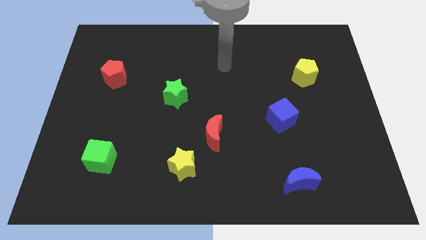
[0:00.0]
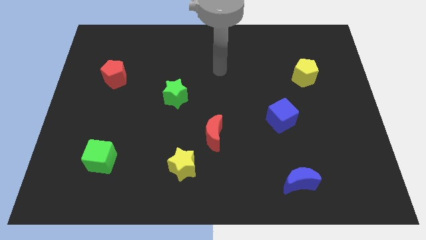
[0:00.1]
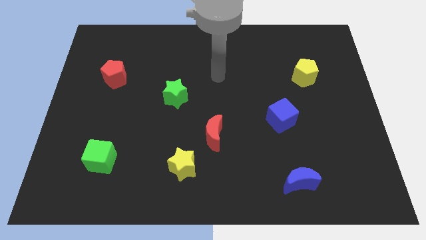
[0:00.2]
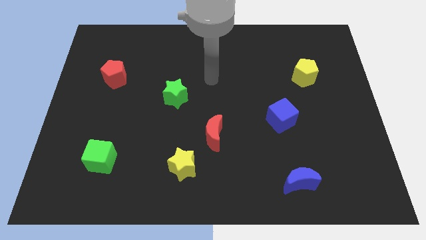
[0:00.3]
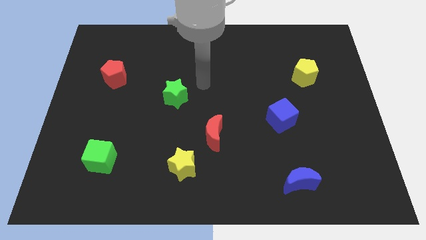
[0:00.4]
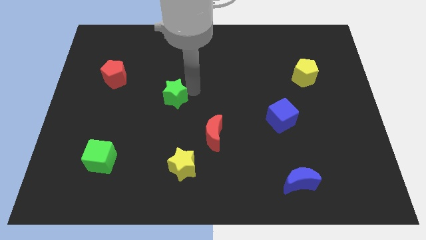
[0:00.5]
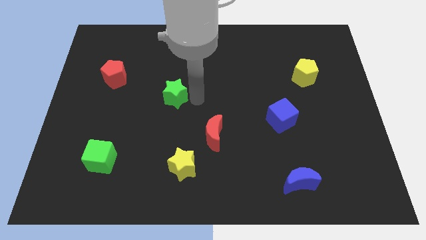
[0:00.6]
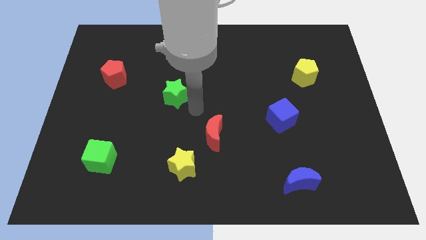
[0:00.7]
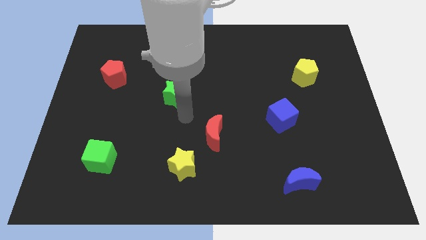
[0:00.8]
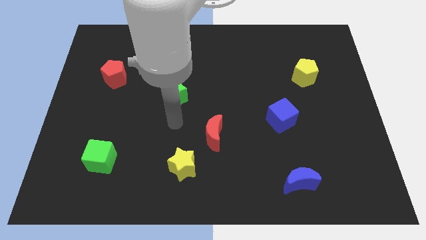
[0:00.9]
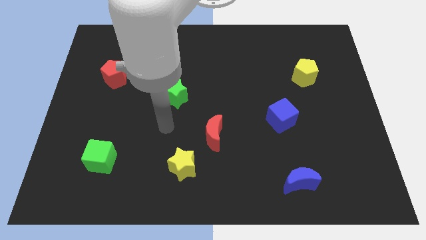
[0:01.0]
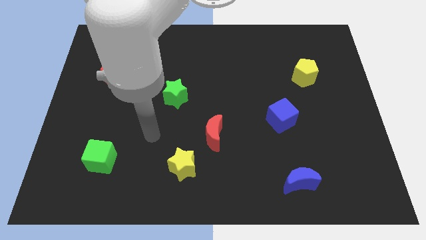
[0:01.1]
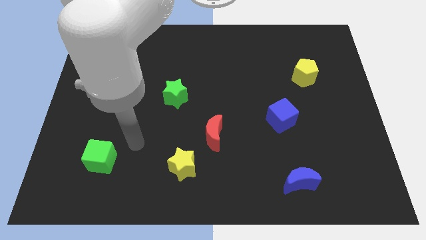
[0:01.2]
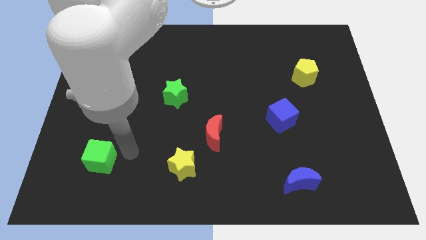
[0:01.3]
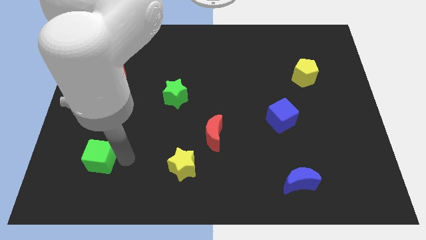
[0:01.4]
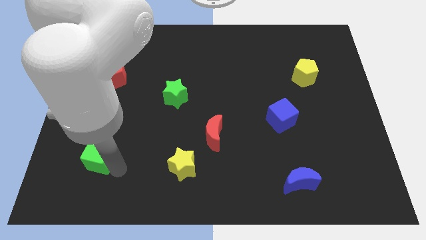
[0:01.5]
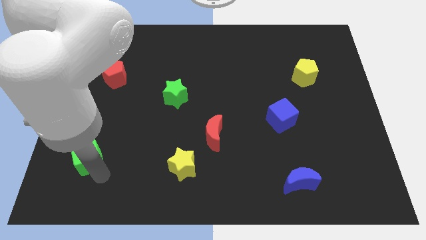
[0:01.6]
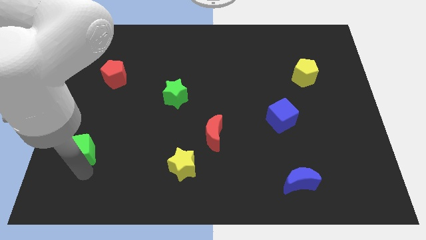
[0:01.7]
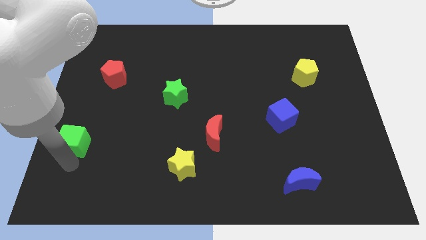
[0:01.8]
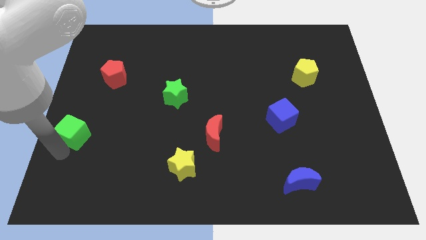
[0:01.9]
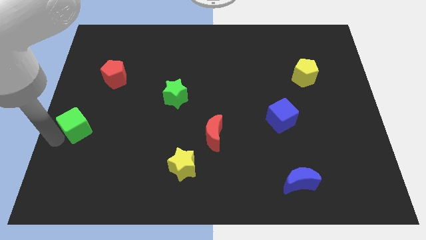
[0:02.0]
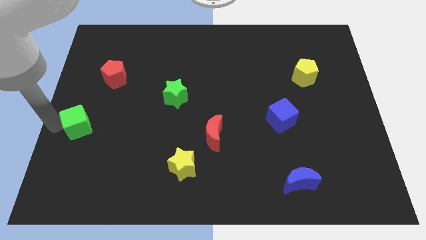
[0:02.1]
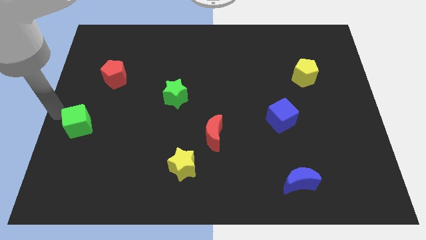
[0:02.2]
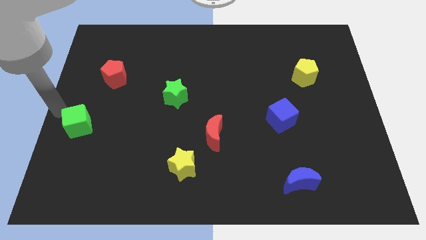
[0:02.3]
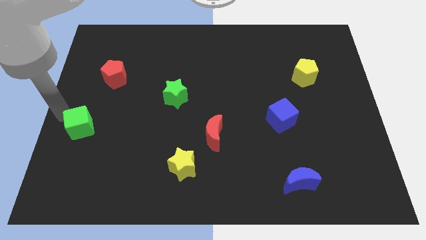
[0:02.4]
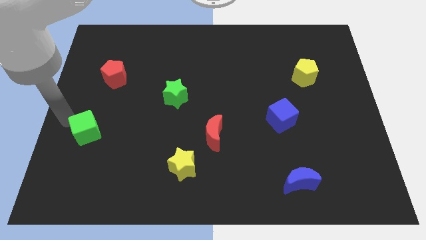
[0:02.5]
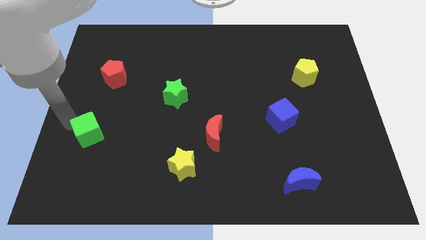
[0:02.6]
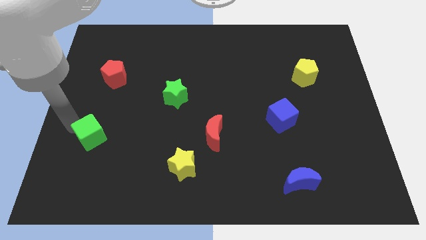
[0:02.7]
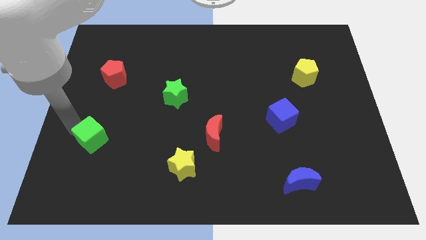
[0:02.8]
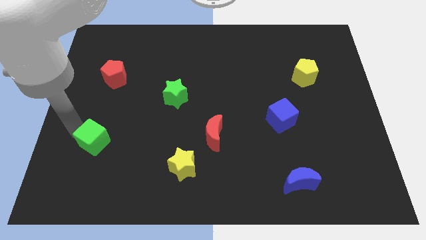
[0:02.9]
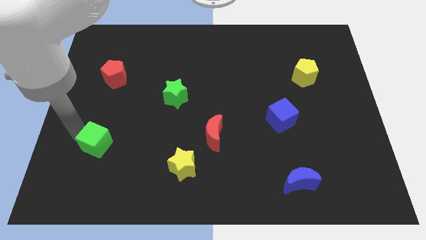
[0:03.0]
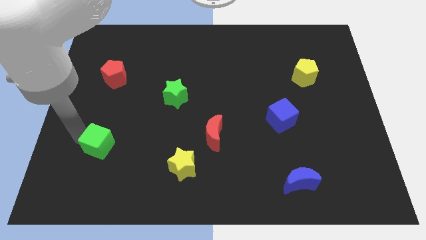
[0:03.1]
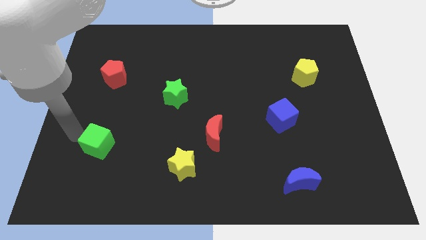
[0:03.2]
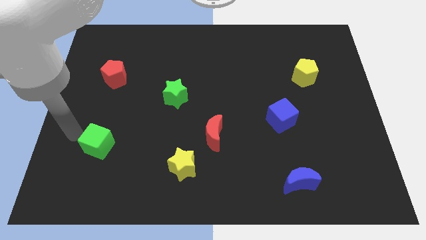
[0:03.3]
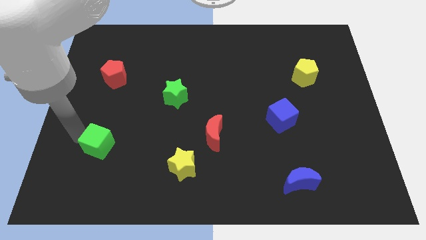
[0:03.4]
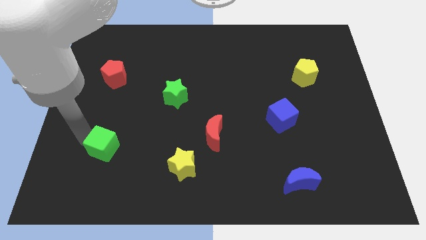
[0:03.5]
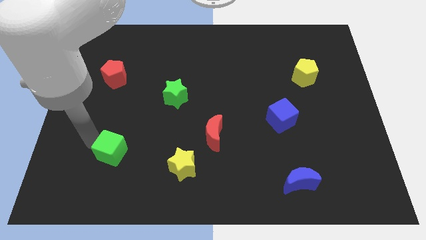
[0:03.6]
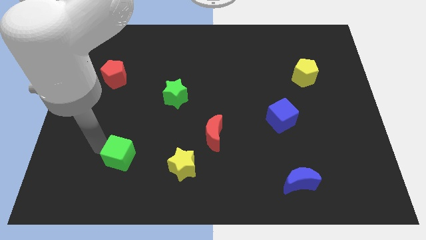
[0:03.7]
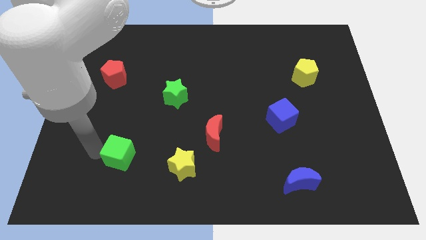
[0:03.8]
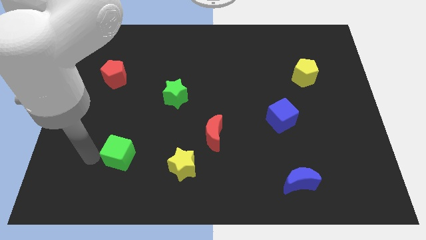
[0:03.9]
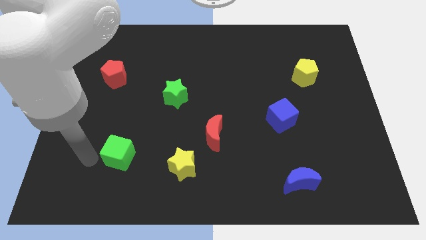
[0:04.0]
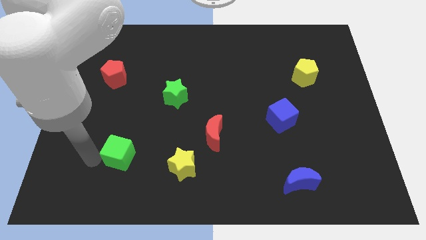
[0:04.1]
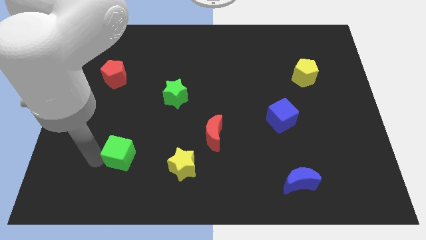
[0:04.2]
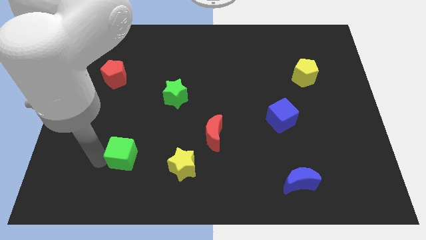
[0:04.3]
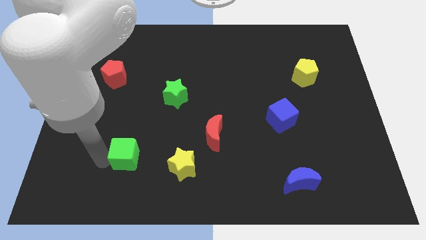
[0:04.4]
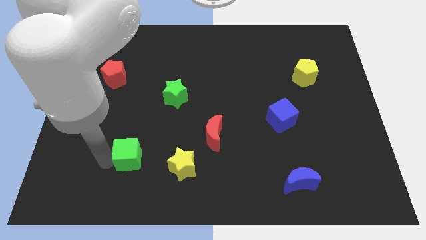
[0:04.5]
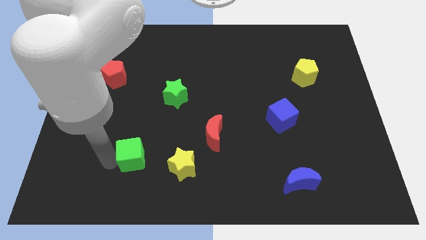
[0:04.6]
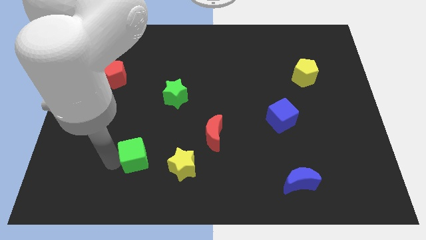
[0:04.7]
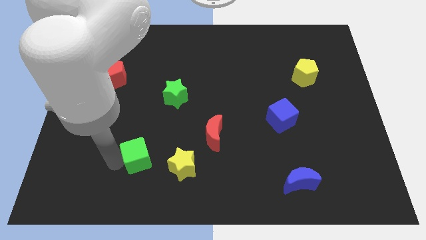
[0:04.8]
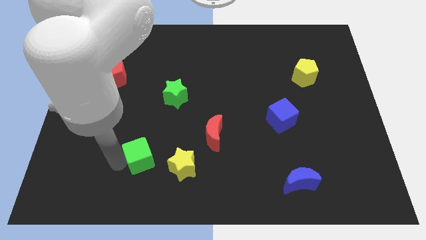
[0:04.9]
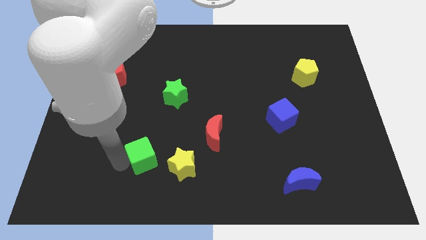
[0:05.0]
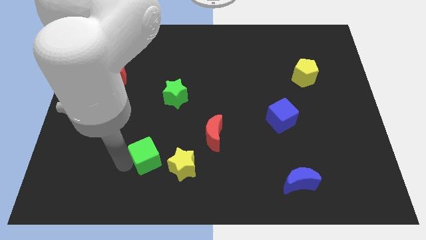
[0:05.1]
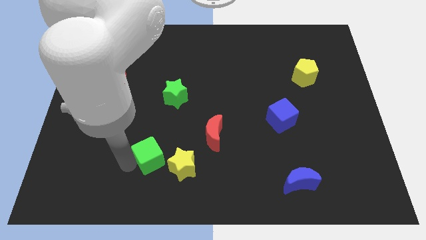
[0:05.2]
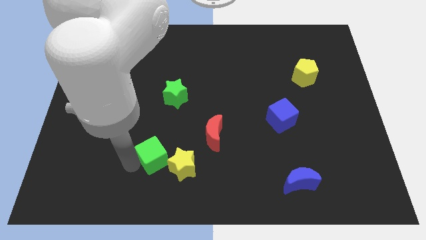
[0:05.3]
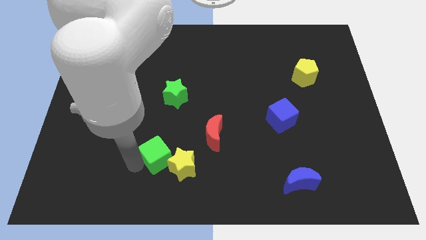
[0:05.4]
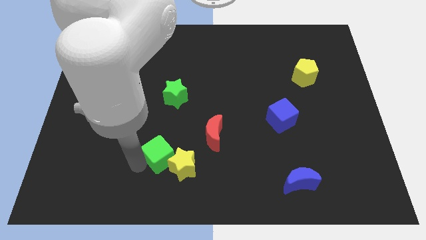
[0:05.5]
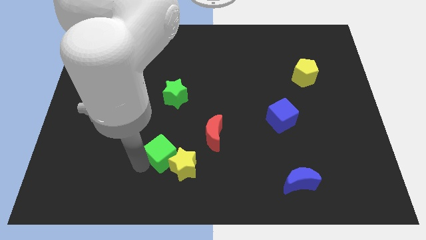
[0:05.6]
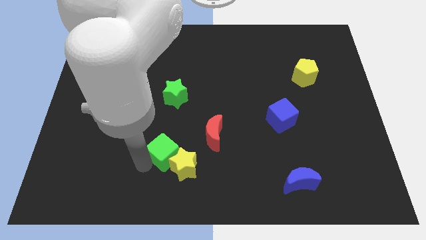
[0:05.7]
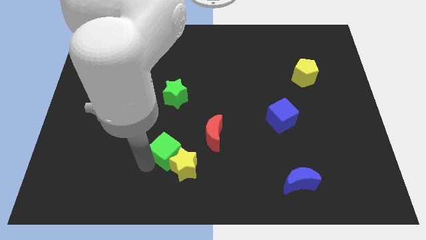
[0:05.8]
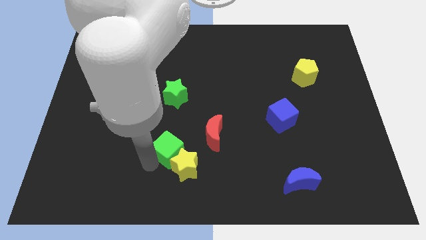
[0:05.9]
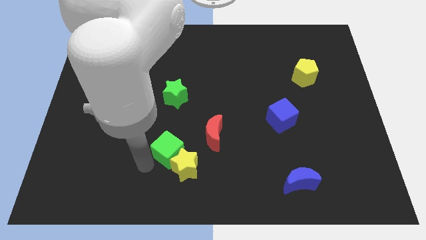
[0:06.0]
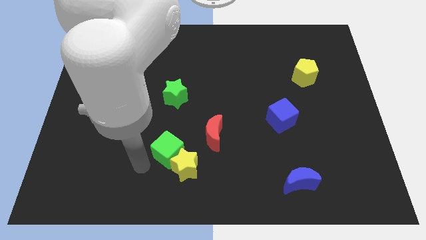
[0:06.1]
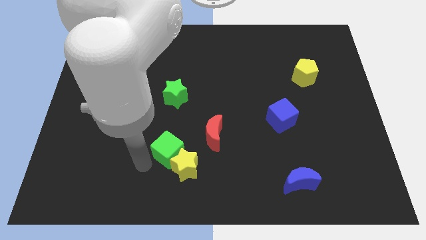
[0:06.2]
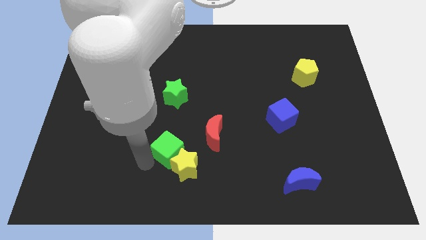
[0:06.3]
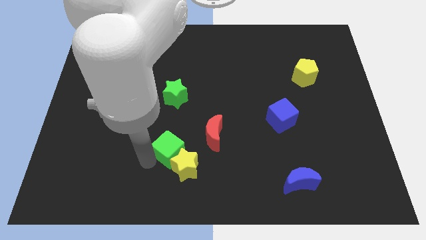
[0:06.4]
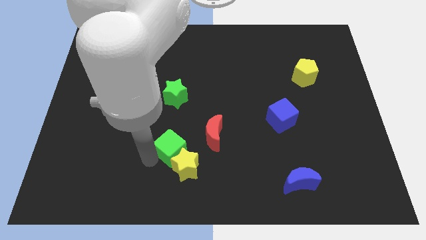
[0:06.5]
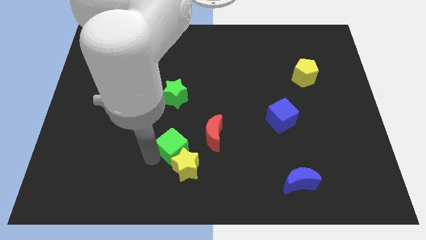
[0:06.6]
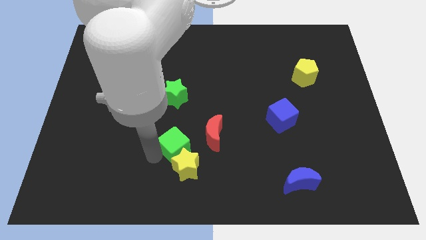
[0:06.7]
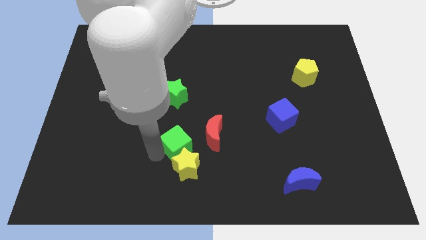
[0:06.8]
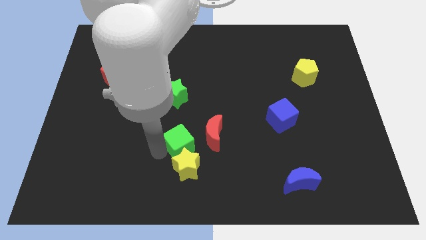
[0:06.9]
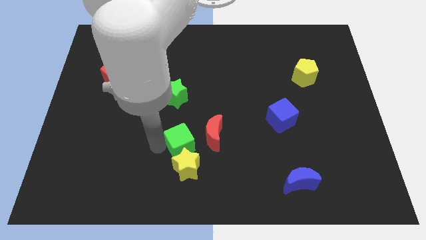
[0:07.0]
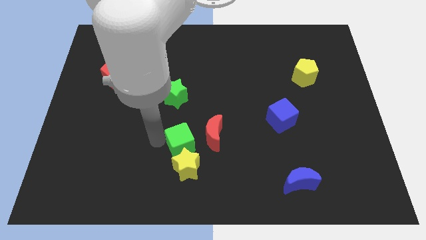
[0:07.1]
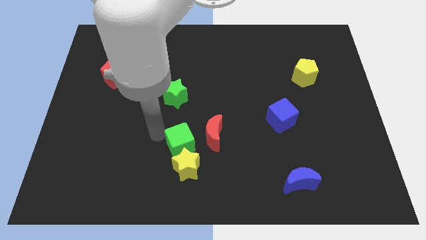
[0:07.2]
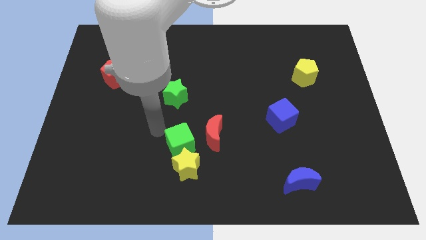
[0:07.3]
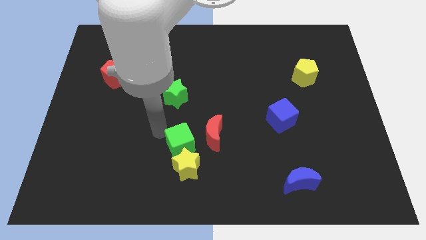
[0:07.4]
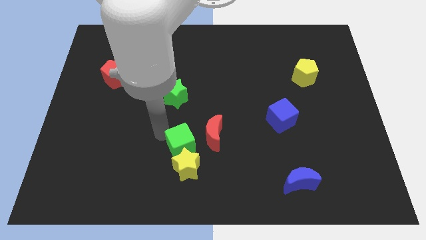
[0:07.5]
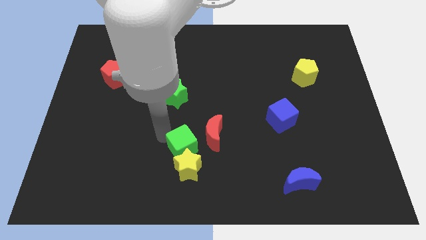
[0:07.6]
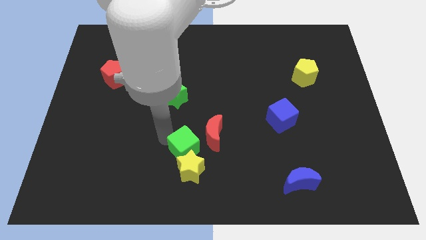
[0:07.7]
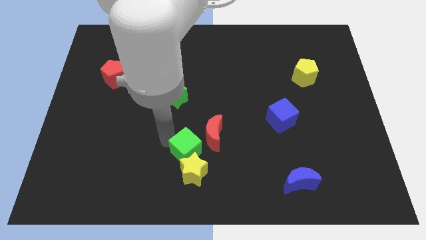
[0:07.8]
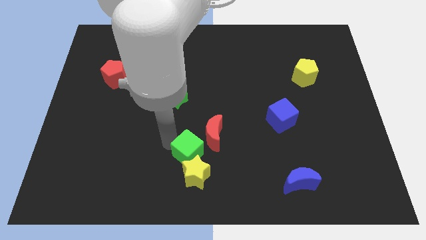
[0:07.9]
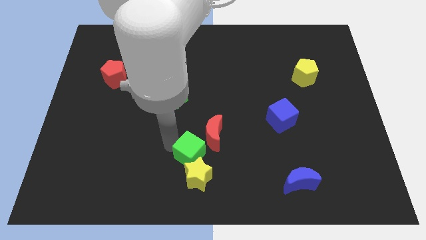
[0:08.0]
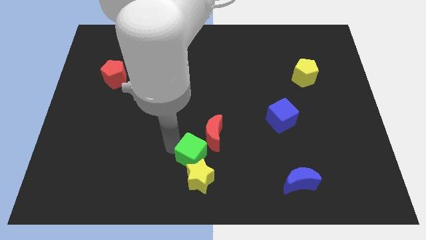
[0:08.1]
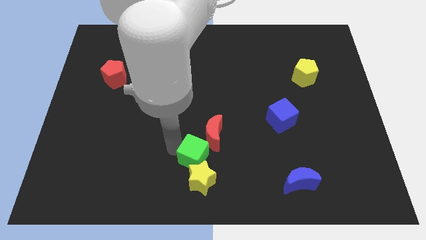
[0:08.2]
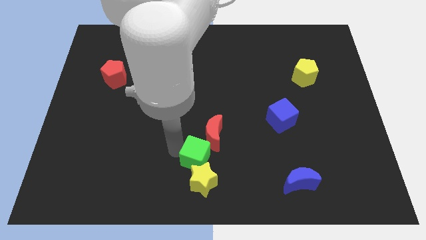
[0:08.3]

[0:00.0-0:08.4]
push the green cube right

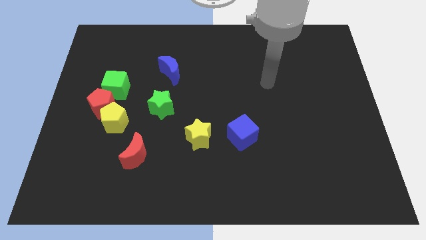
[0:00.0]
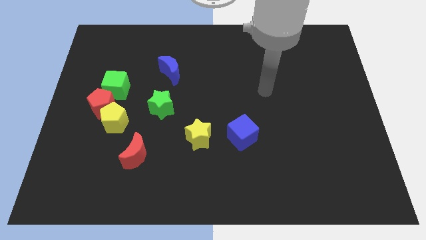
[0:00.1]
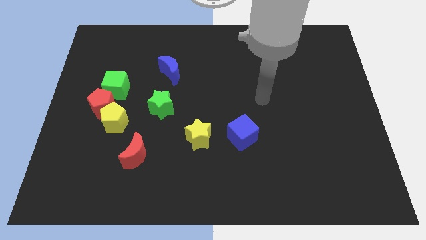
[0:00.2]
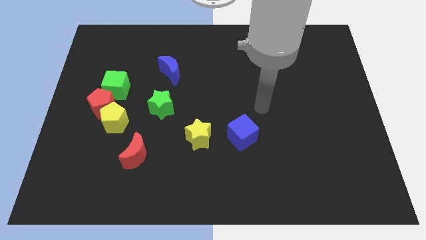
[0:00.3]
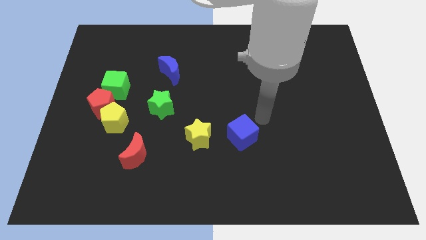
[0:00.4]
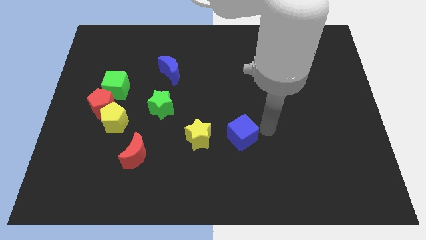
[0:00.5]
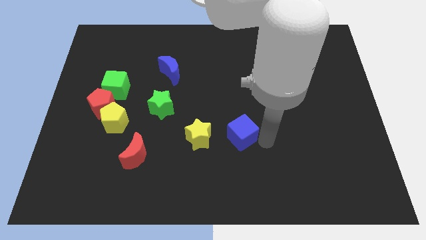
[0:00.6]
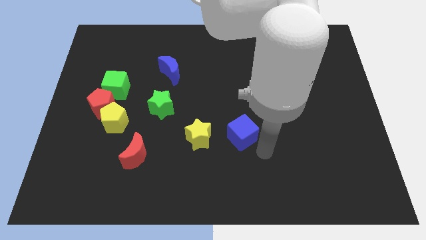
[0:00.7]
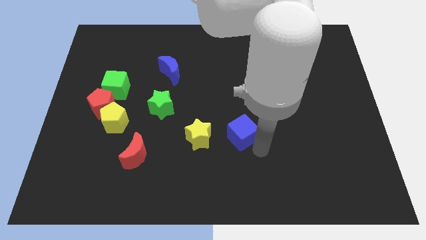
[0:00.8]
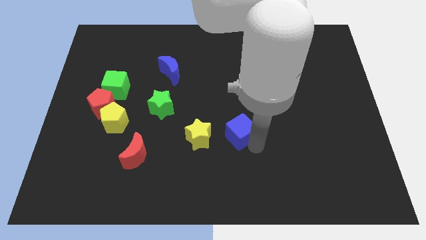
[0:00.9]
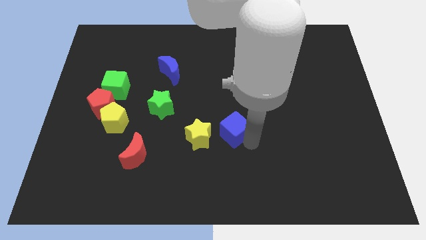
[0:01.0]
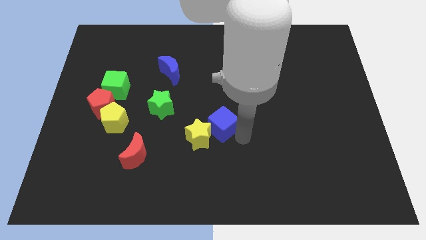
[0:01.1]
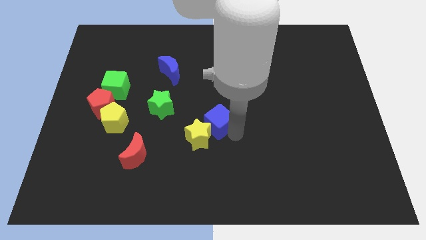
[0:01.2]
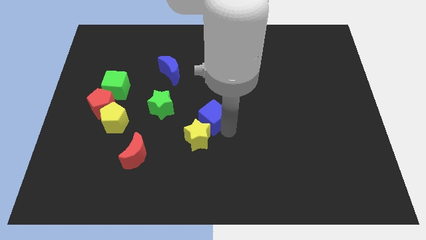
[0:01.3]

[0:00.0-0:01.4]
slightly push the blue cube up and left
